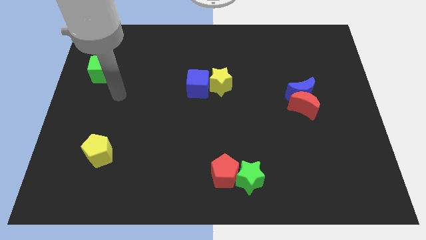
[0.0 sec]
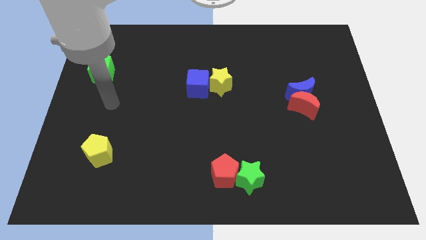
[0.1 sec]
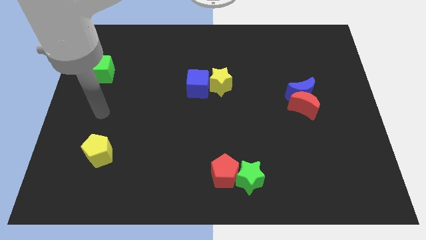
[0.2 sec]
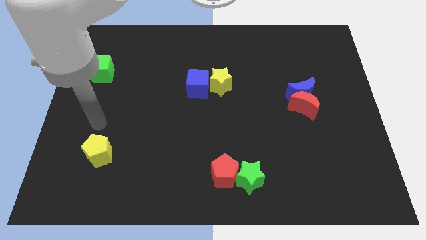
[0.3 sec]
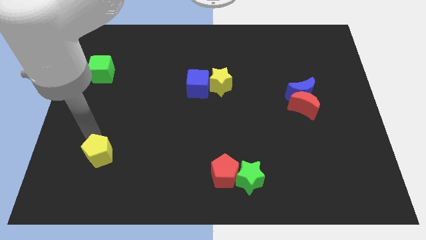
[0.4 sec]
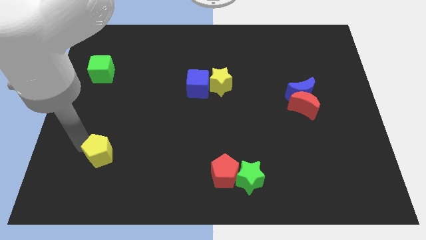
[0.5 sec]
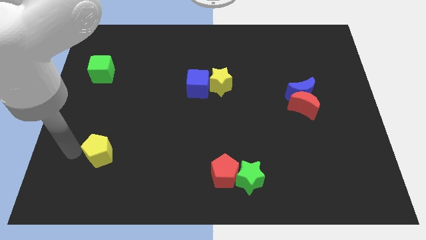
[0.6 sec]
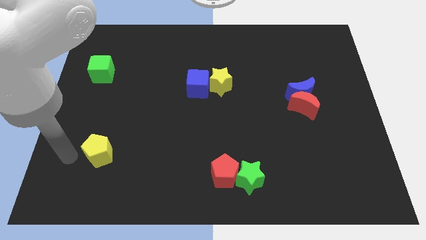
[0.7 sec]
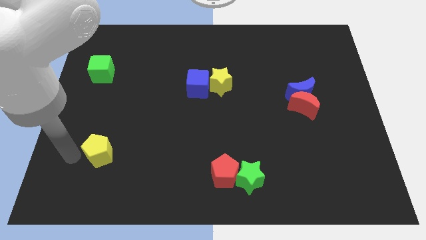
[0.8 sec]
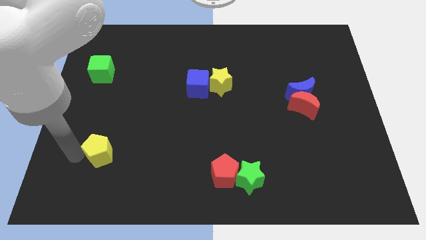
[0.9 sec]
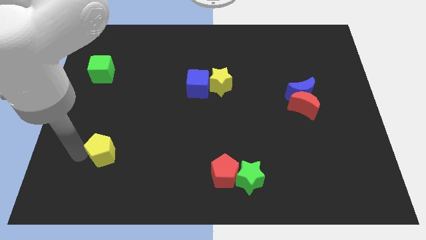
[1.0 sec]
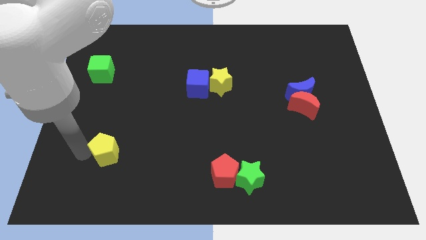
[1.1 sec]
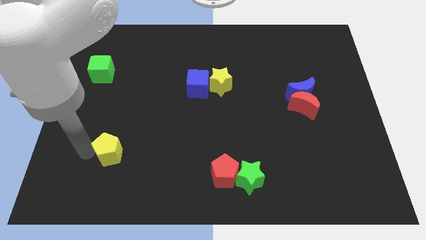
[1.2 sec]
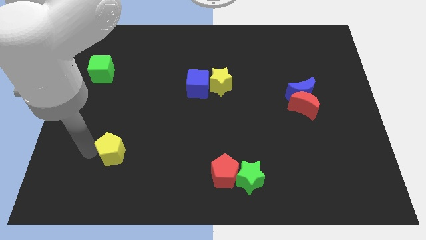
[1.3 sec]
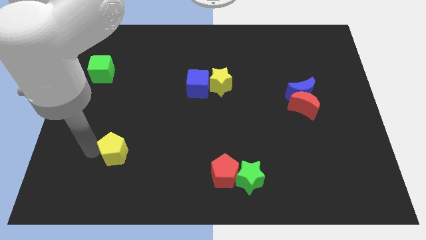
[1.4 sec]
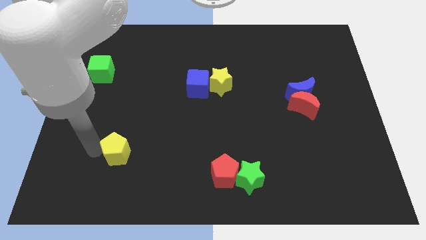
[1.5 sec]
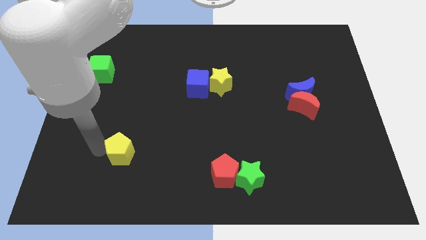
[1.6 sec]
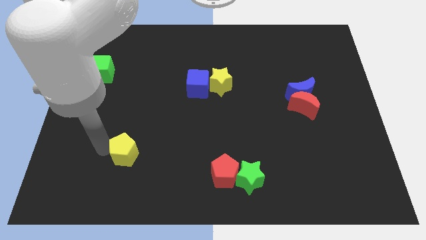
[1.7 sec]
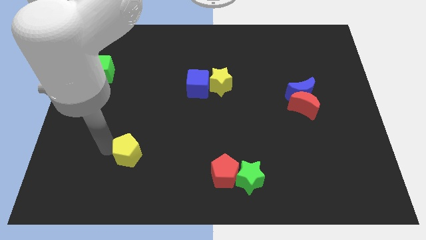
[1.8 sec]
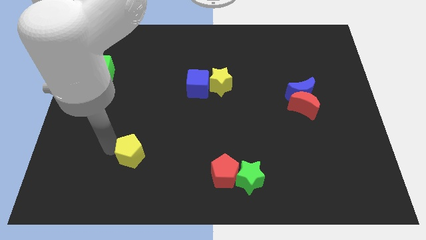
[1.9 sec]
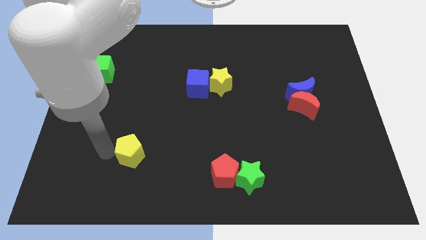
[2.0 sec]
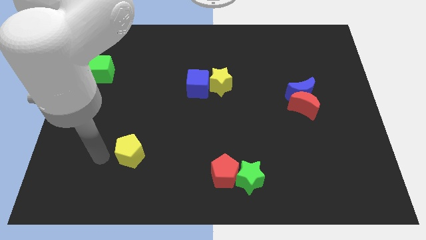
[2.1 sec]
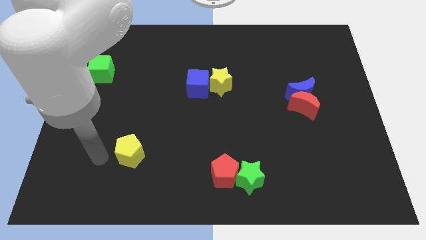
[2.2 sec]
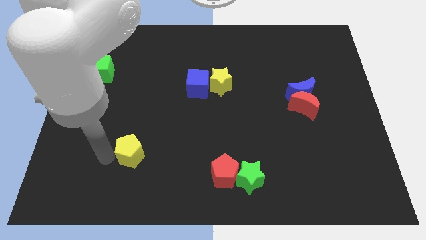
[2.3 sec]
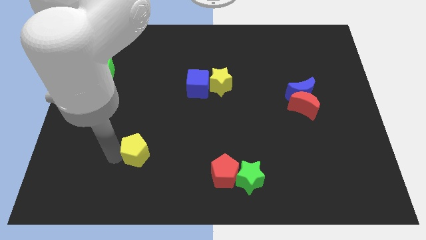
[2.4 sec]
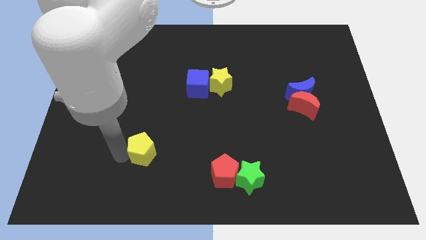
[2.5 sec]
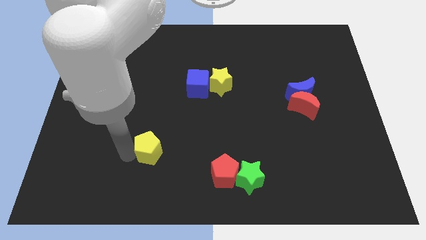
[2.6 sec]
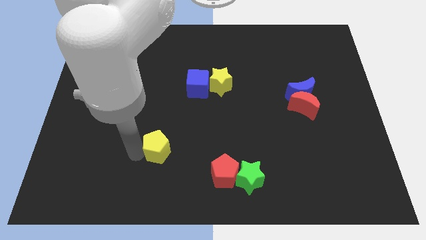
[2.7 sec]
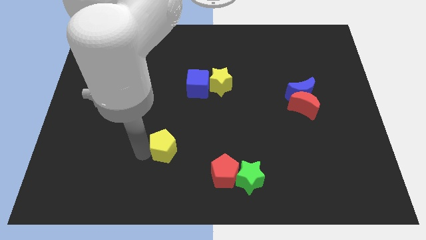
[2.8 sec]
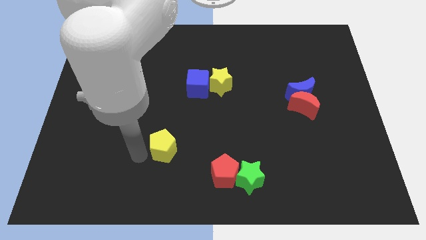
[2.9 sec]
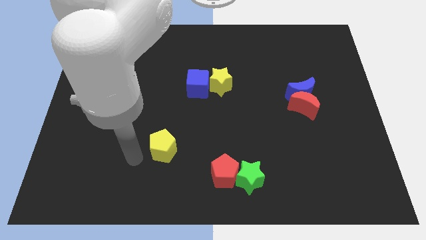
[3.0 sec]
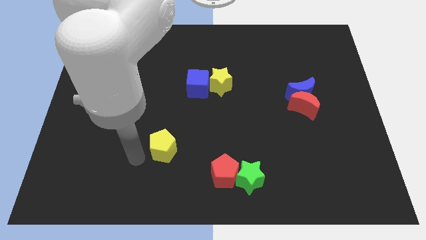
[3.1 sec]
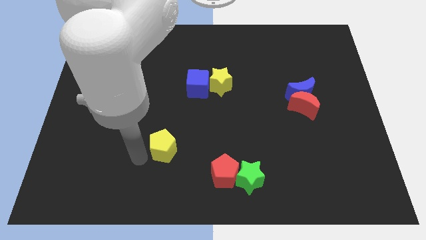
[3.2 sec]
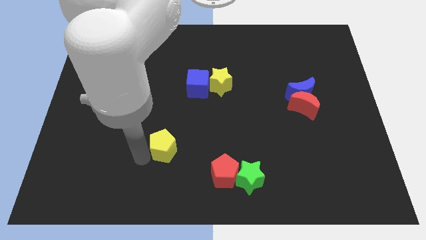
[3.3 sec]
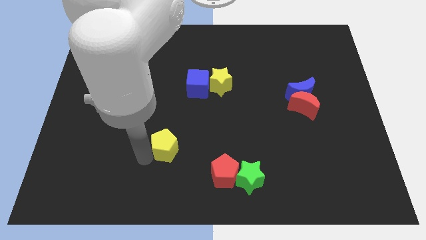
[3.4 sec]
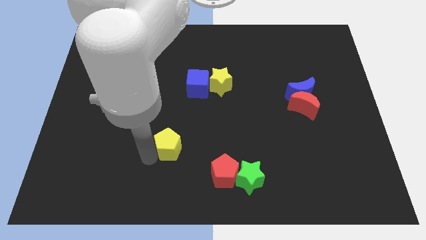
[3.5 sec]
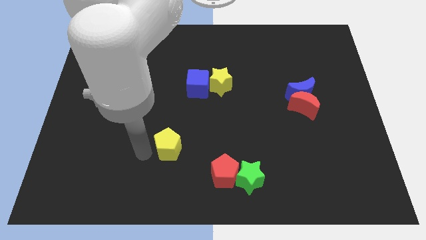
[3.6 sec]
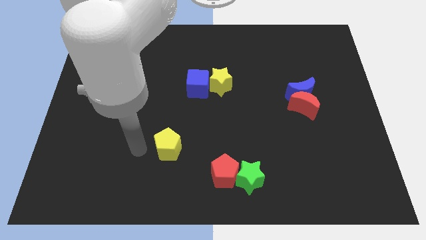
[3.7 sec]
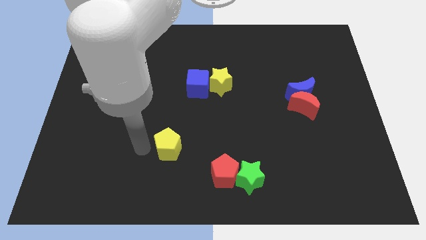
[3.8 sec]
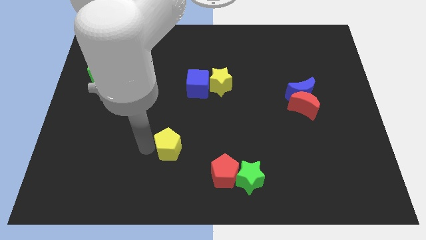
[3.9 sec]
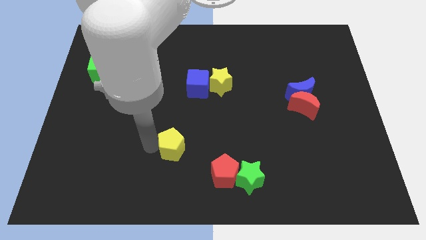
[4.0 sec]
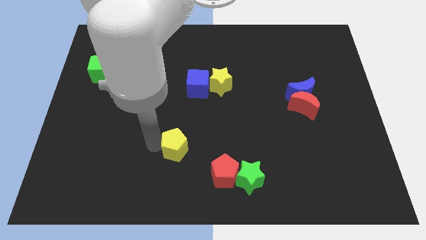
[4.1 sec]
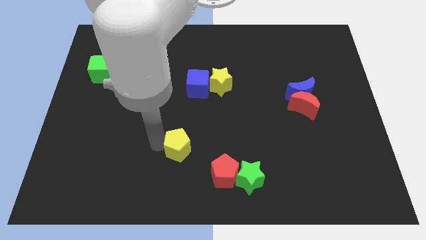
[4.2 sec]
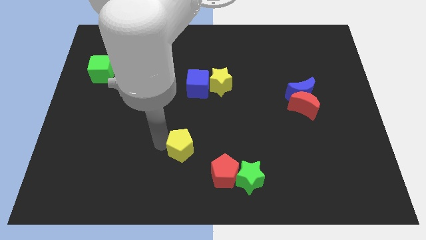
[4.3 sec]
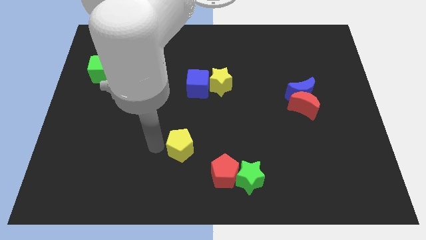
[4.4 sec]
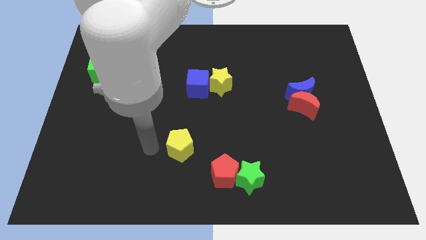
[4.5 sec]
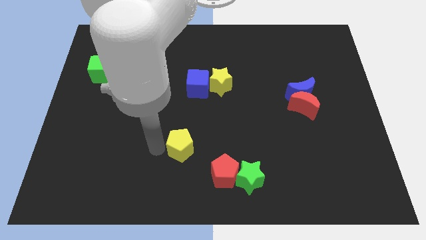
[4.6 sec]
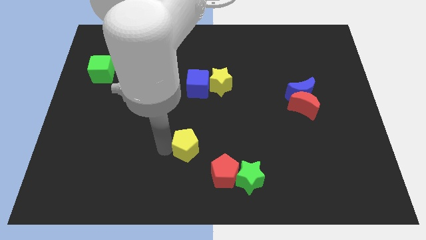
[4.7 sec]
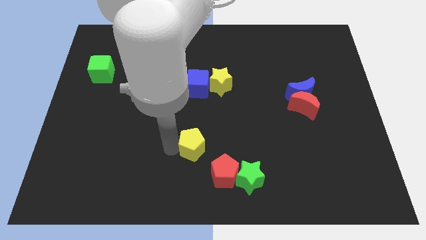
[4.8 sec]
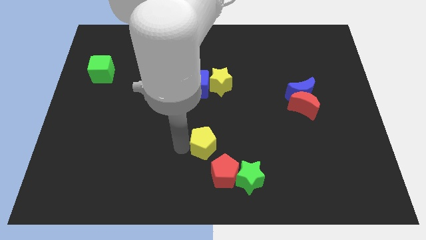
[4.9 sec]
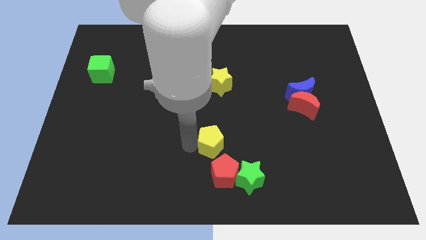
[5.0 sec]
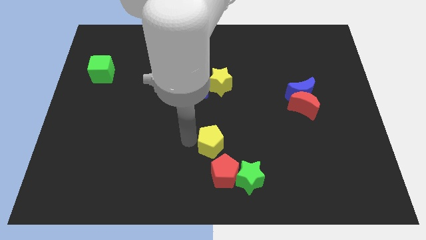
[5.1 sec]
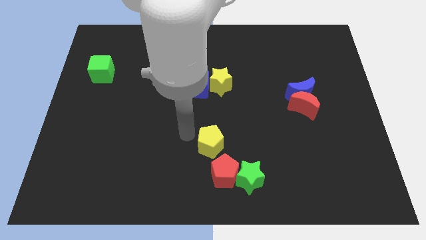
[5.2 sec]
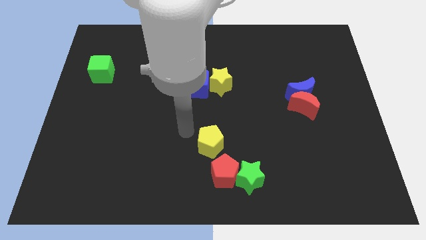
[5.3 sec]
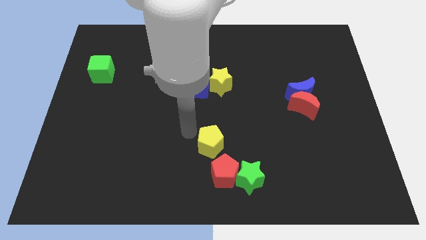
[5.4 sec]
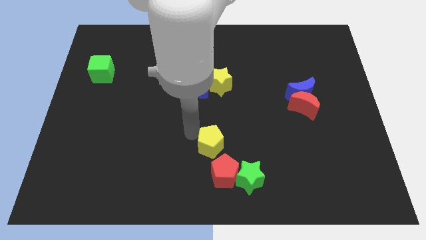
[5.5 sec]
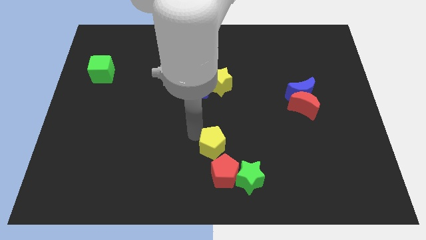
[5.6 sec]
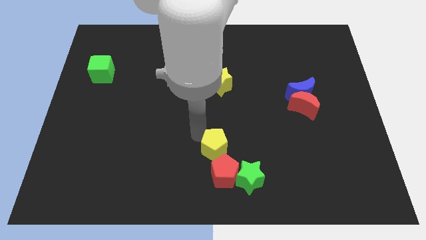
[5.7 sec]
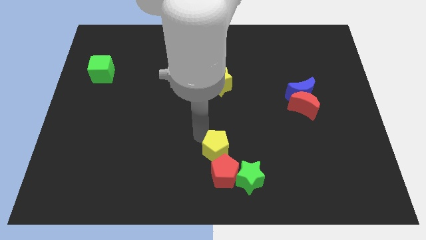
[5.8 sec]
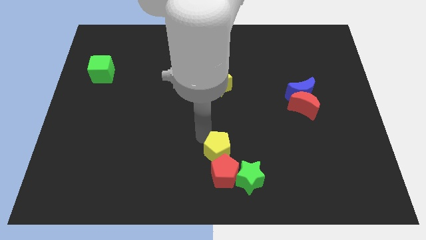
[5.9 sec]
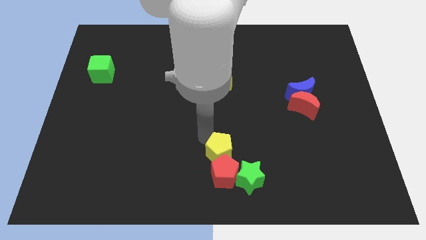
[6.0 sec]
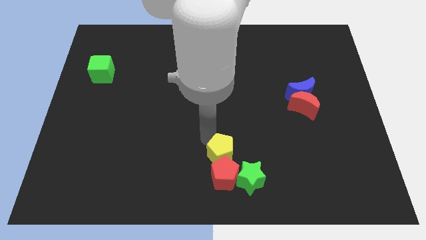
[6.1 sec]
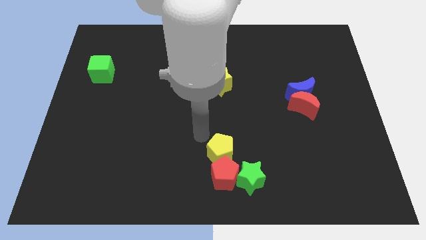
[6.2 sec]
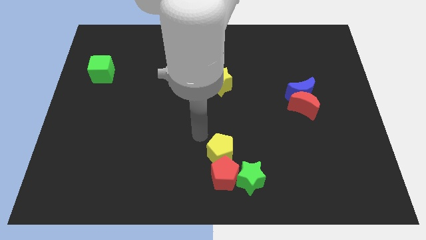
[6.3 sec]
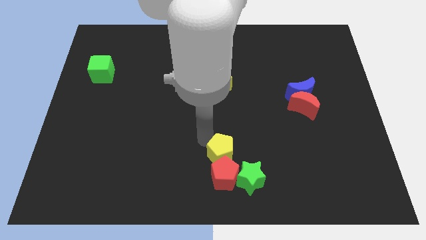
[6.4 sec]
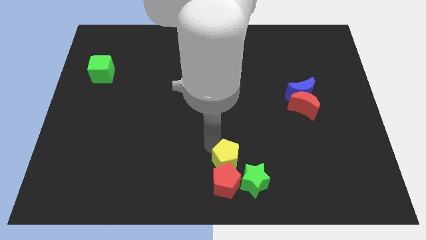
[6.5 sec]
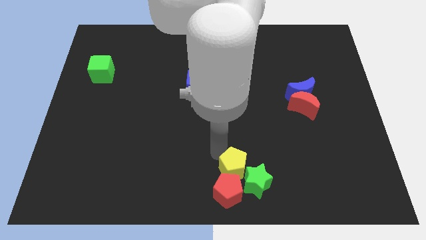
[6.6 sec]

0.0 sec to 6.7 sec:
put the yellow pentagon to the green star

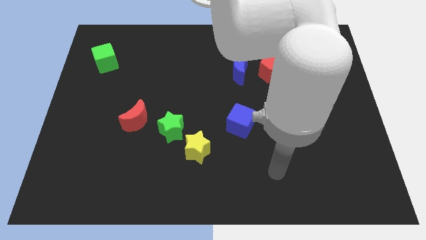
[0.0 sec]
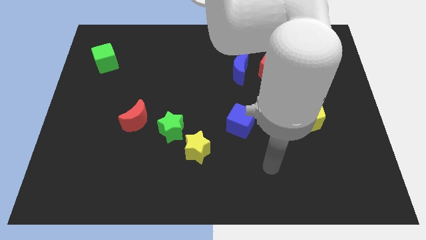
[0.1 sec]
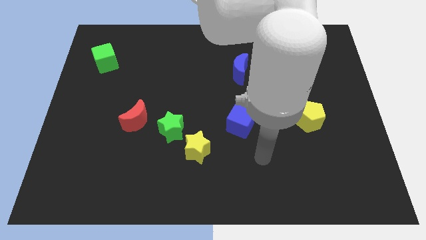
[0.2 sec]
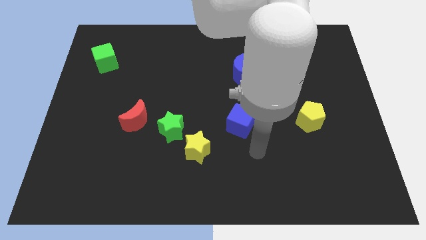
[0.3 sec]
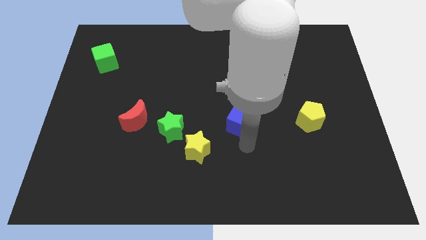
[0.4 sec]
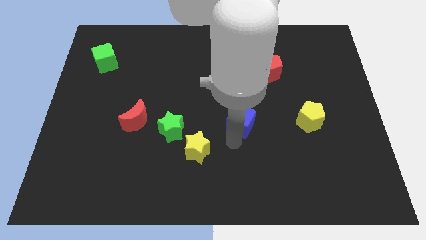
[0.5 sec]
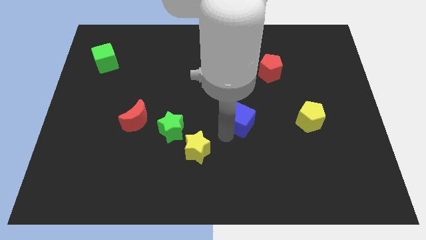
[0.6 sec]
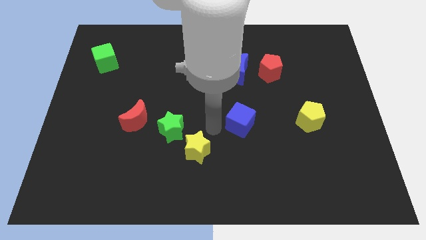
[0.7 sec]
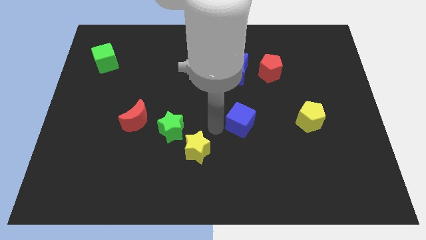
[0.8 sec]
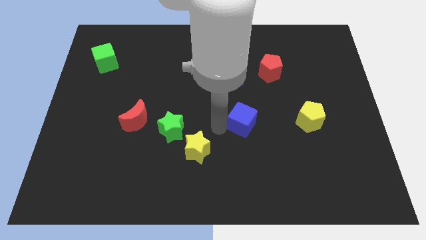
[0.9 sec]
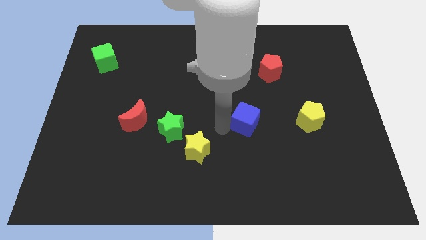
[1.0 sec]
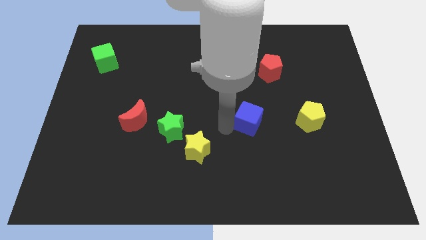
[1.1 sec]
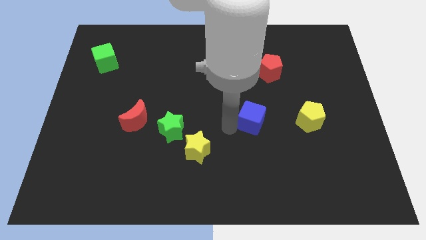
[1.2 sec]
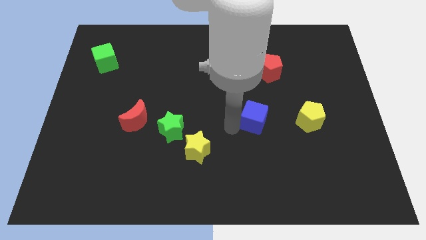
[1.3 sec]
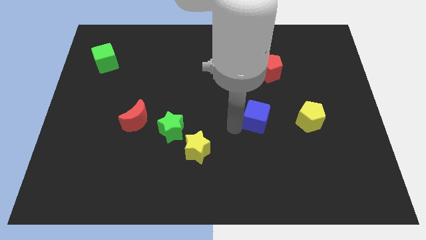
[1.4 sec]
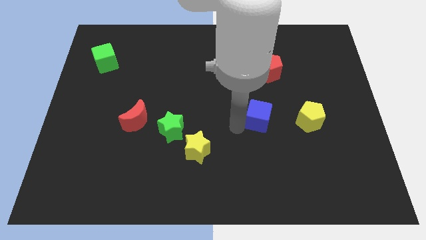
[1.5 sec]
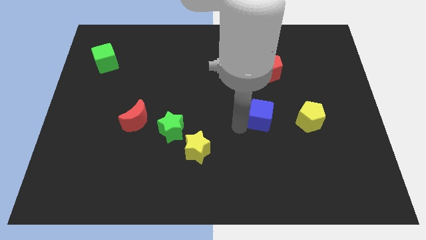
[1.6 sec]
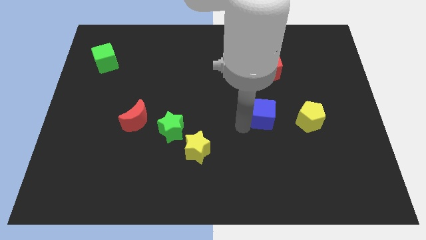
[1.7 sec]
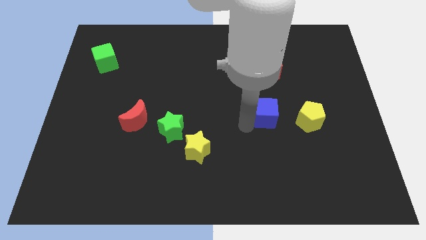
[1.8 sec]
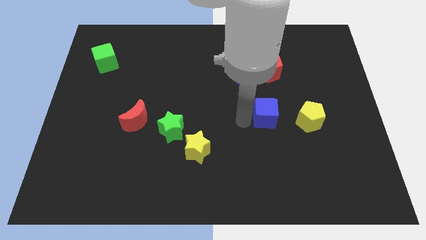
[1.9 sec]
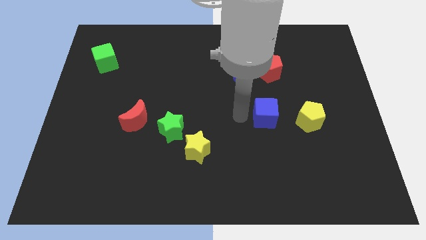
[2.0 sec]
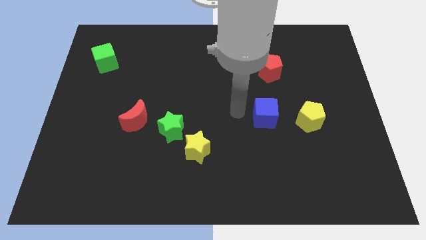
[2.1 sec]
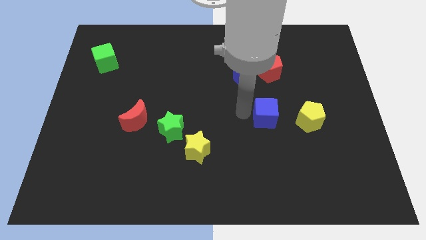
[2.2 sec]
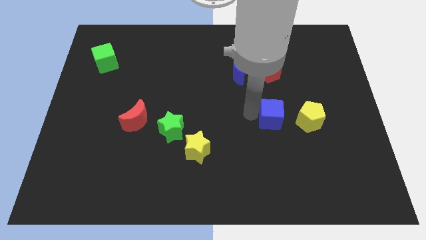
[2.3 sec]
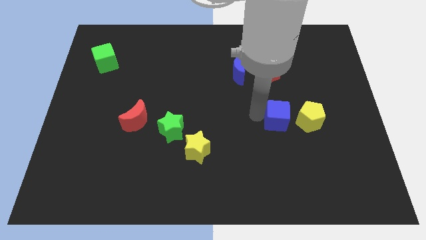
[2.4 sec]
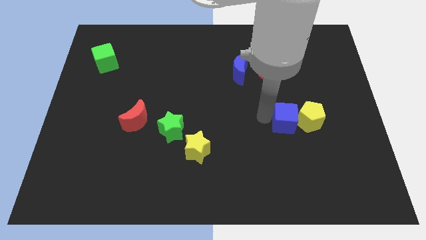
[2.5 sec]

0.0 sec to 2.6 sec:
push the blue cube to the yellow pentagon
